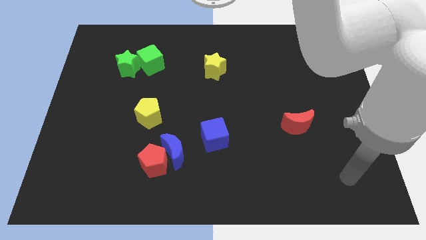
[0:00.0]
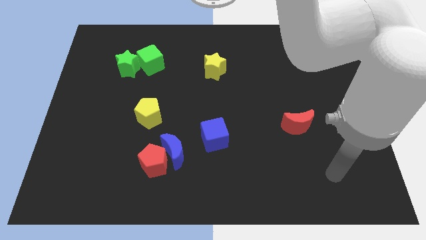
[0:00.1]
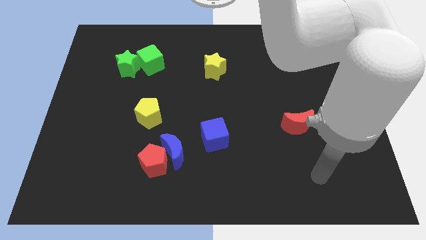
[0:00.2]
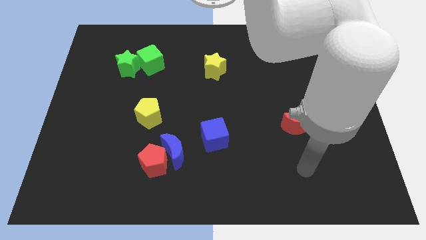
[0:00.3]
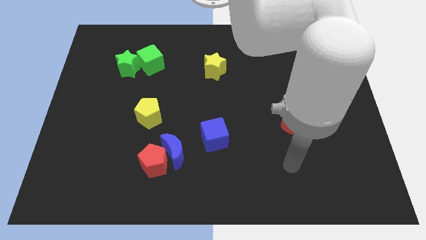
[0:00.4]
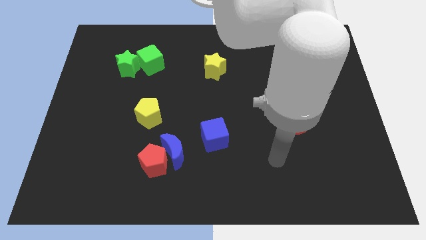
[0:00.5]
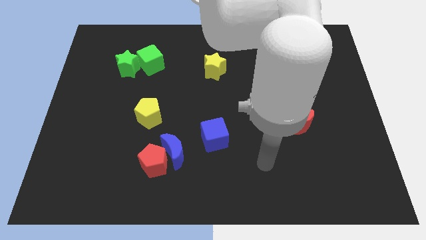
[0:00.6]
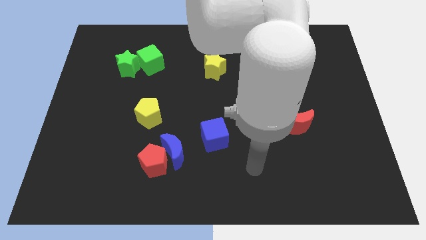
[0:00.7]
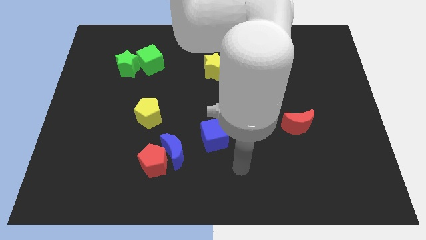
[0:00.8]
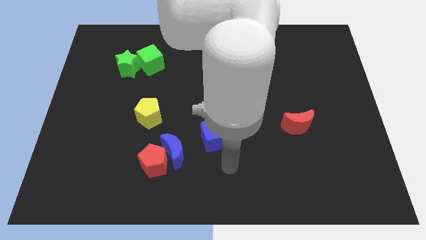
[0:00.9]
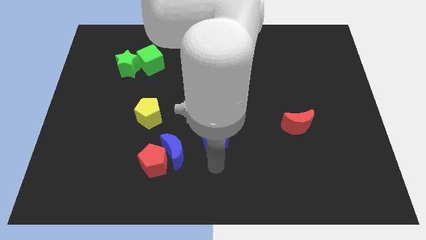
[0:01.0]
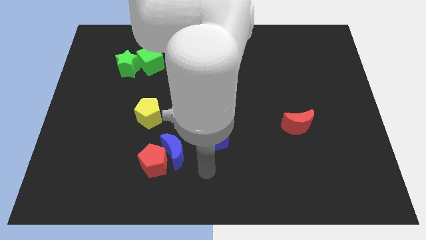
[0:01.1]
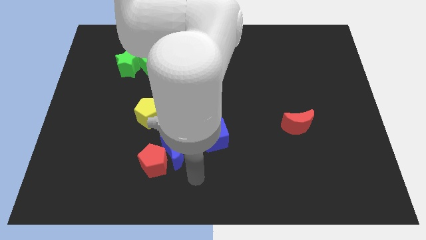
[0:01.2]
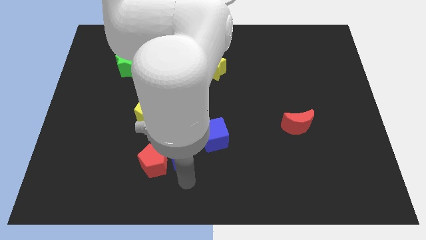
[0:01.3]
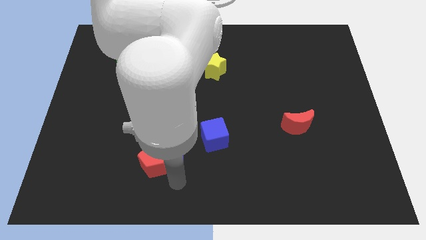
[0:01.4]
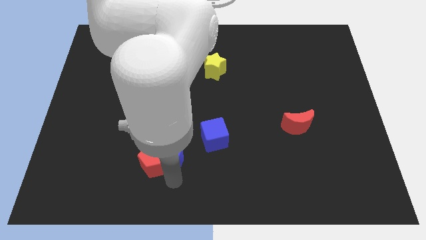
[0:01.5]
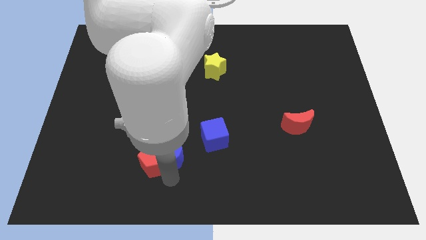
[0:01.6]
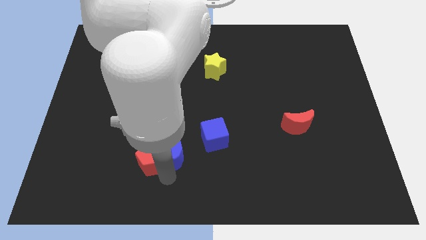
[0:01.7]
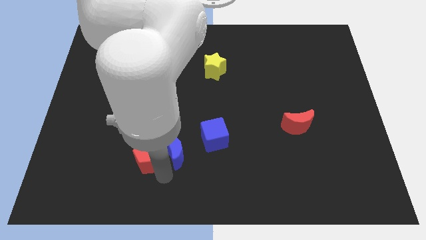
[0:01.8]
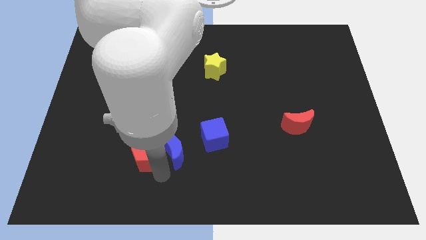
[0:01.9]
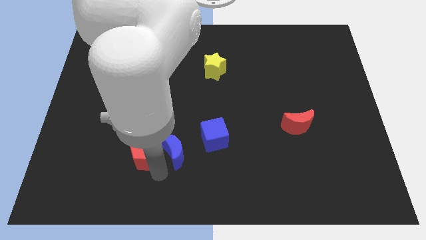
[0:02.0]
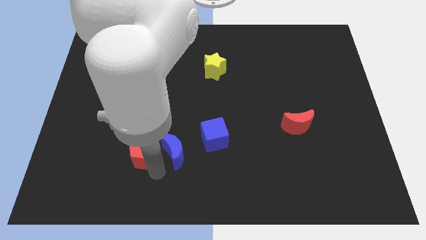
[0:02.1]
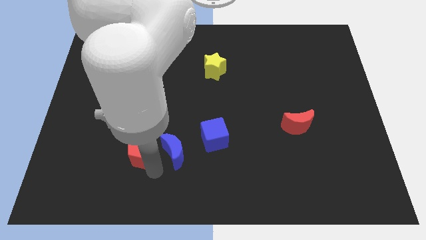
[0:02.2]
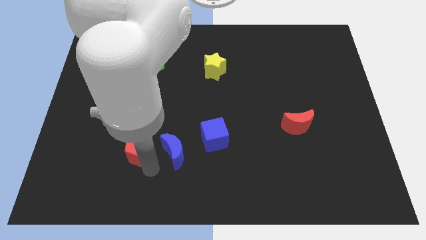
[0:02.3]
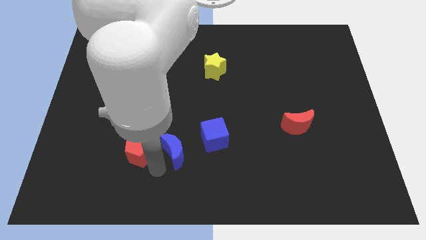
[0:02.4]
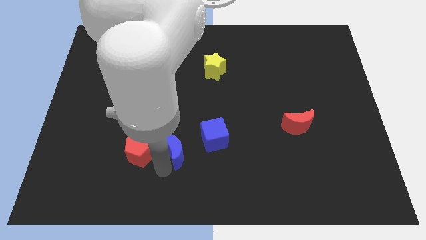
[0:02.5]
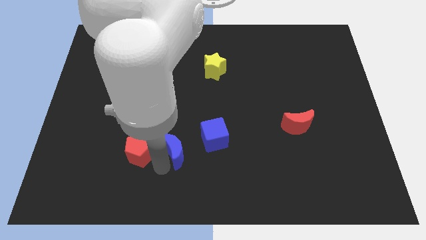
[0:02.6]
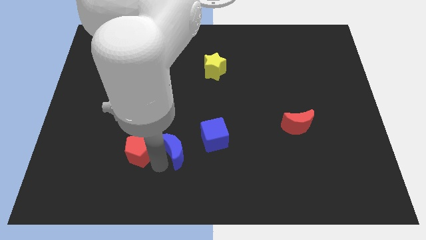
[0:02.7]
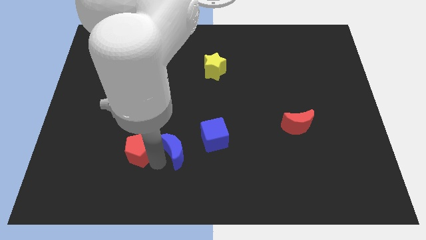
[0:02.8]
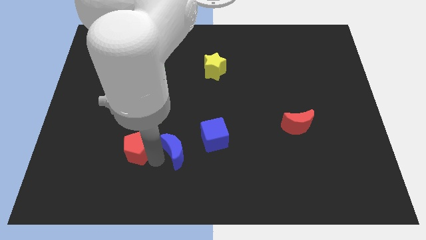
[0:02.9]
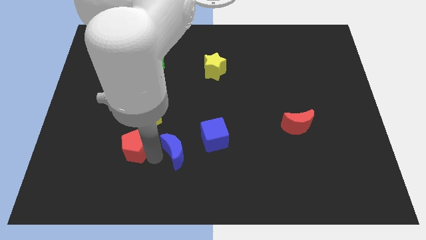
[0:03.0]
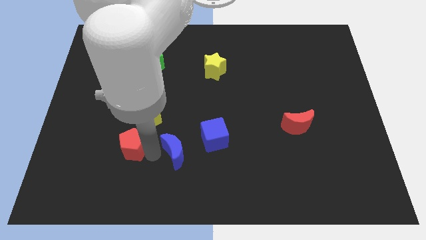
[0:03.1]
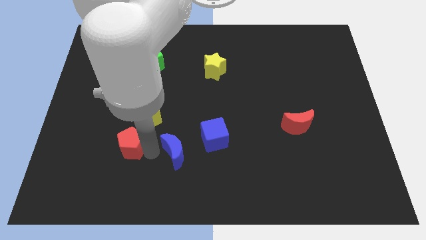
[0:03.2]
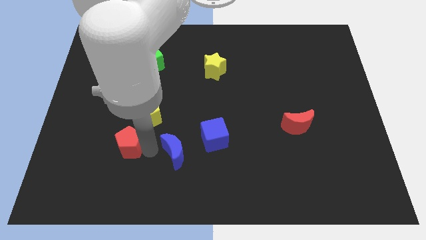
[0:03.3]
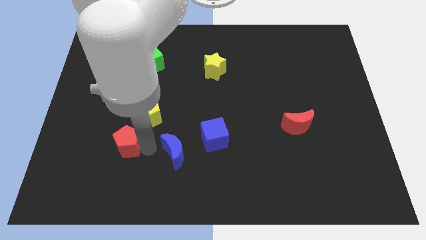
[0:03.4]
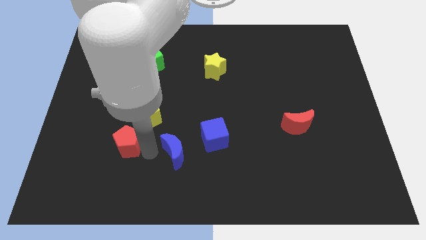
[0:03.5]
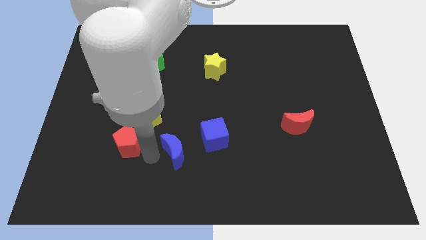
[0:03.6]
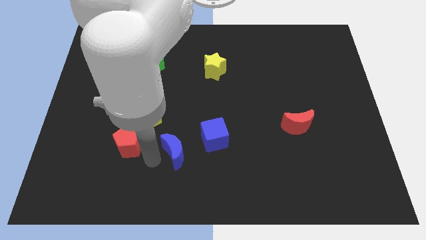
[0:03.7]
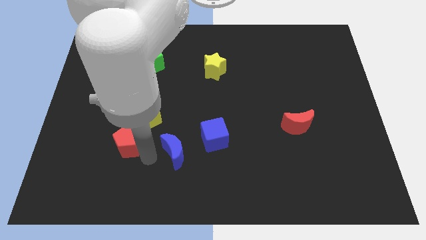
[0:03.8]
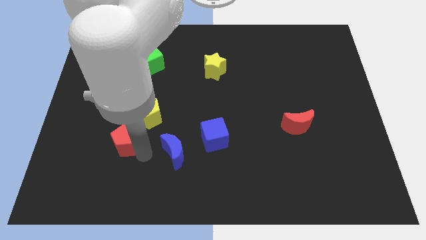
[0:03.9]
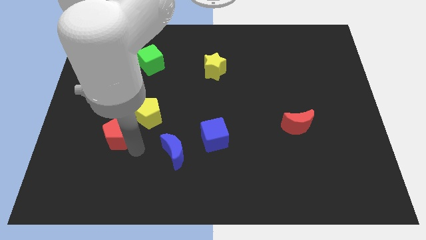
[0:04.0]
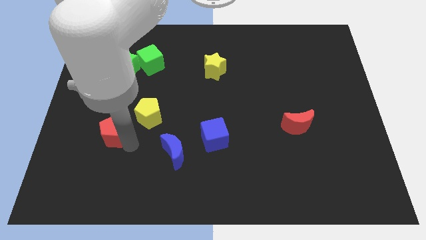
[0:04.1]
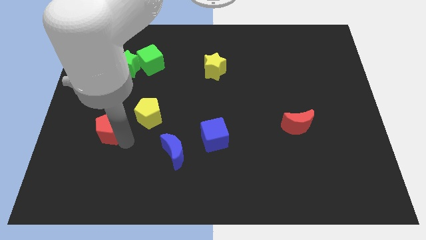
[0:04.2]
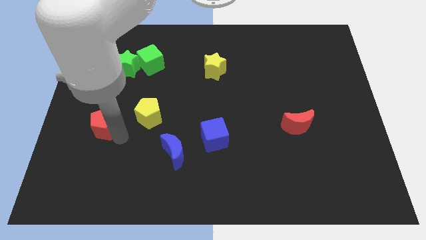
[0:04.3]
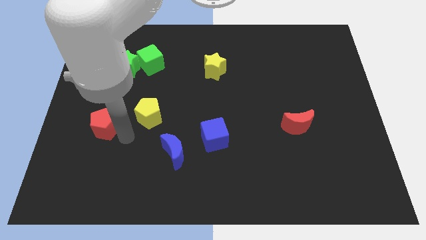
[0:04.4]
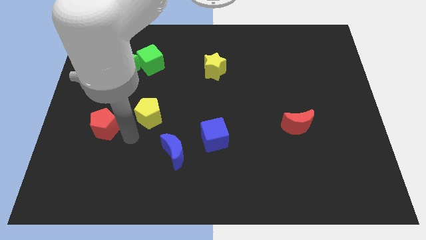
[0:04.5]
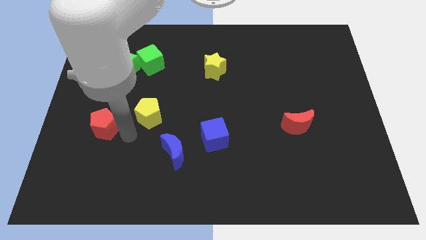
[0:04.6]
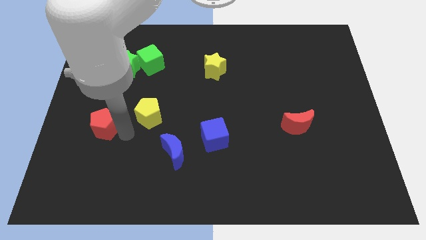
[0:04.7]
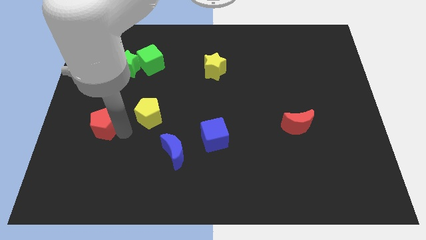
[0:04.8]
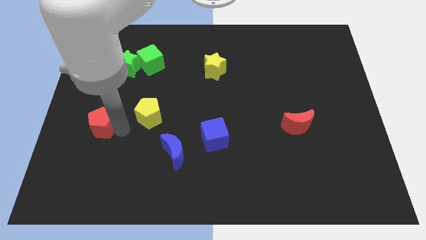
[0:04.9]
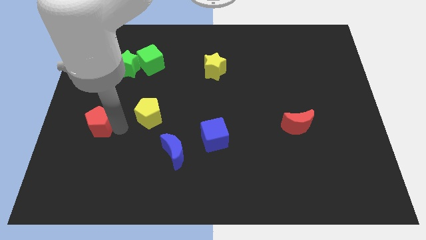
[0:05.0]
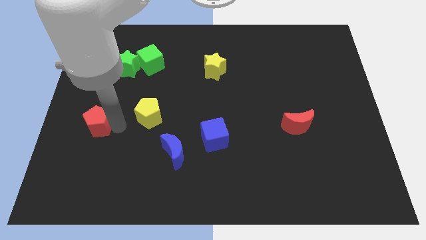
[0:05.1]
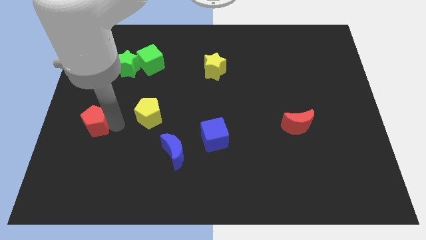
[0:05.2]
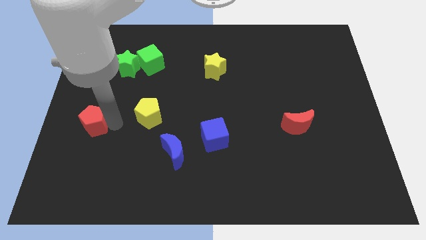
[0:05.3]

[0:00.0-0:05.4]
move the red pentagon to the center left

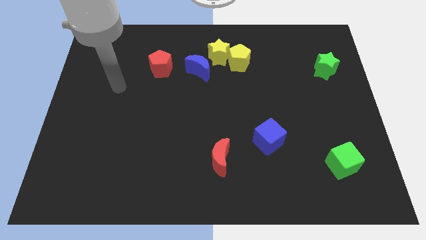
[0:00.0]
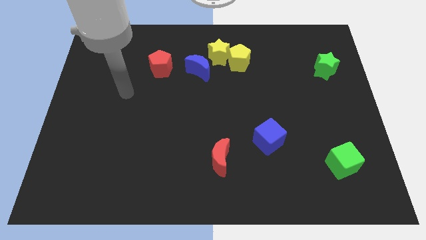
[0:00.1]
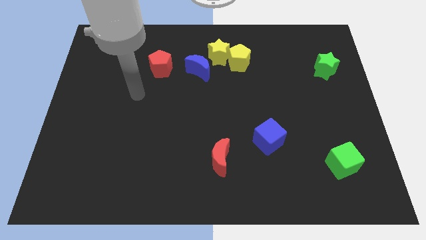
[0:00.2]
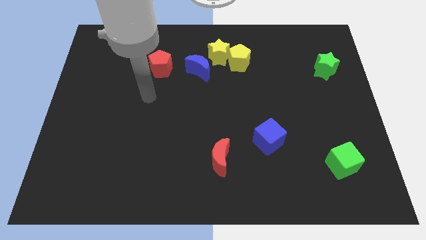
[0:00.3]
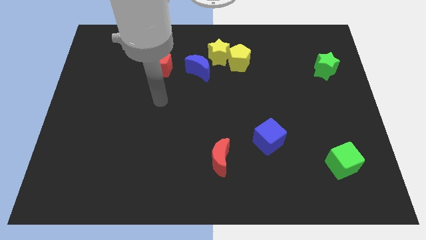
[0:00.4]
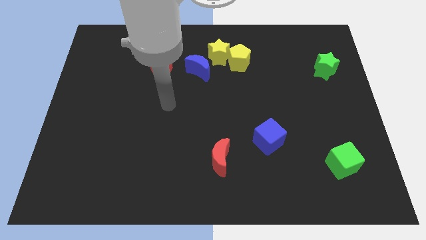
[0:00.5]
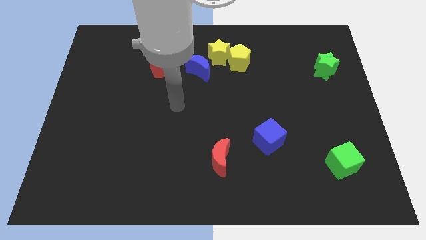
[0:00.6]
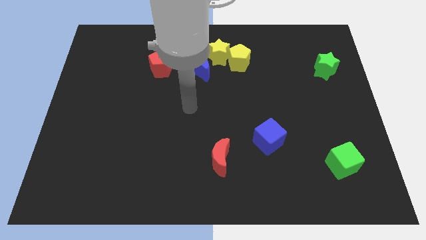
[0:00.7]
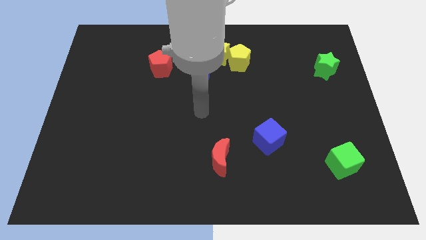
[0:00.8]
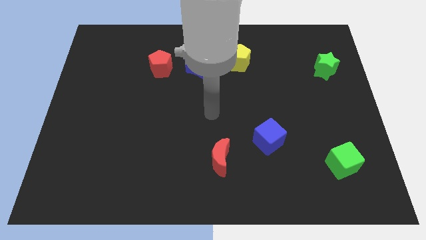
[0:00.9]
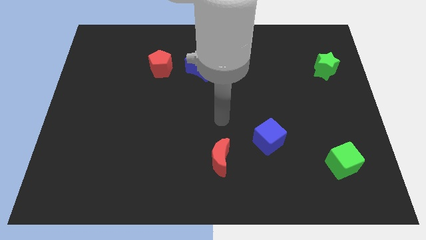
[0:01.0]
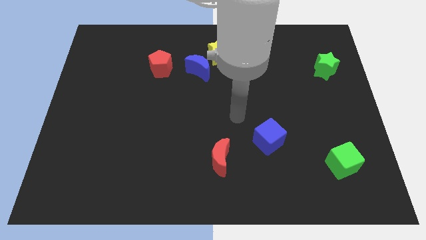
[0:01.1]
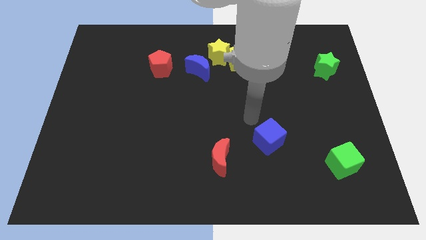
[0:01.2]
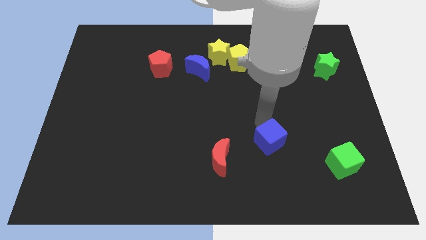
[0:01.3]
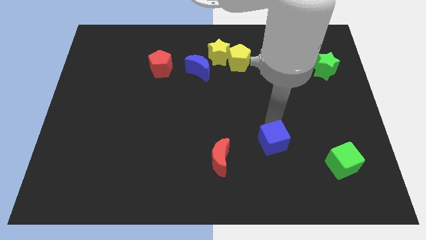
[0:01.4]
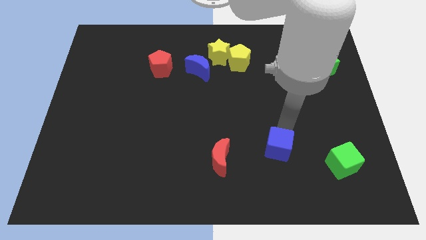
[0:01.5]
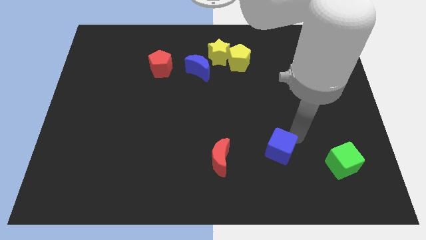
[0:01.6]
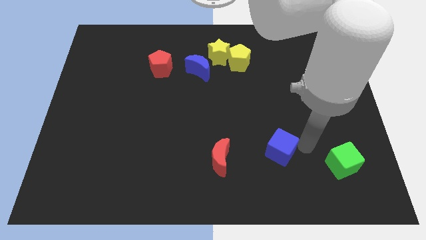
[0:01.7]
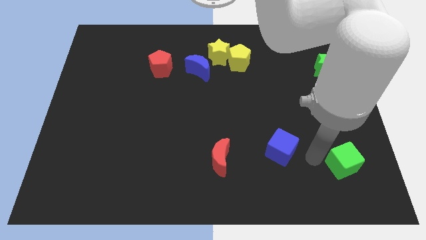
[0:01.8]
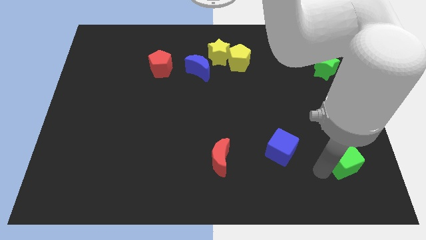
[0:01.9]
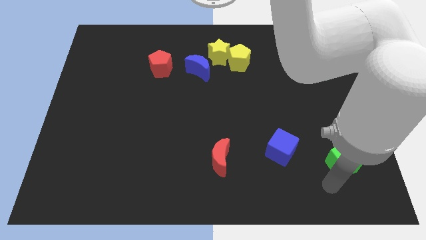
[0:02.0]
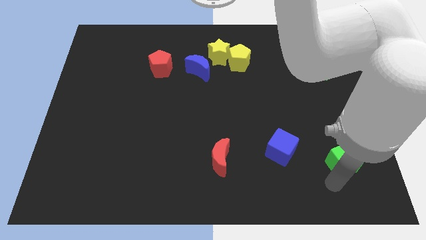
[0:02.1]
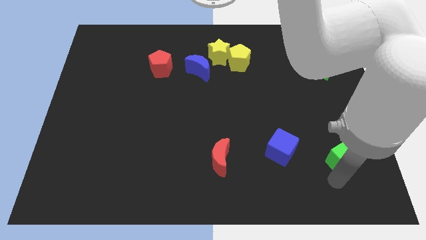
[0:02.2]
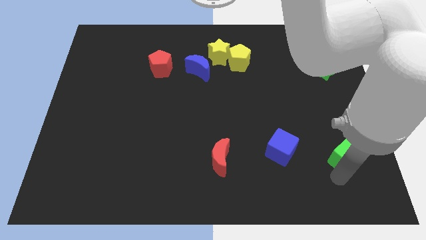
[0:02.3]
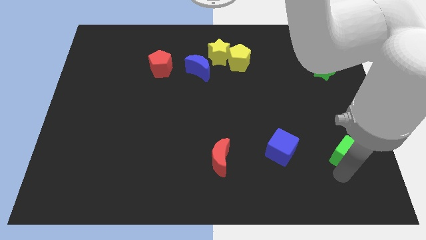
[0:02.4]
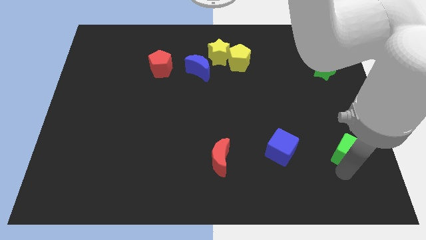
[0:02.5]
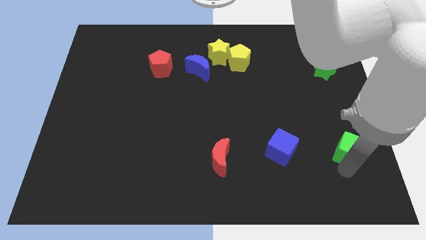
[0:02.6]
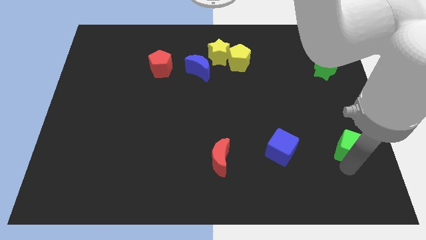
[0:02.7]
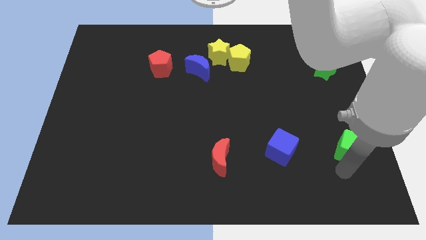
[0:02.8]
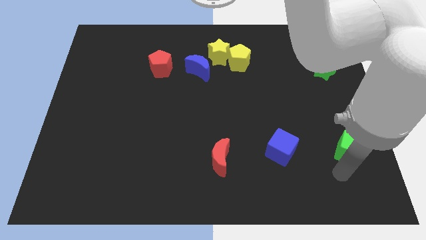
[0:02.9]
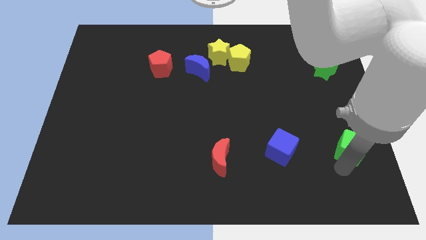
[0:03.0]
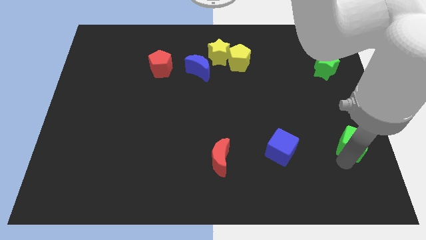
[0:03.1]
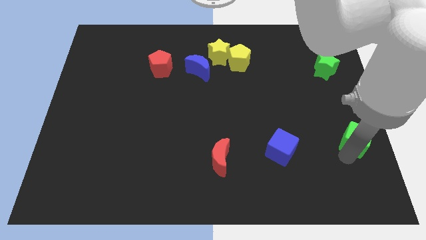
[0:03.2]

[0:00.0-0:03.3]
put the green cube to the right side
